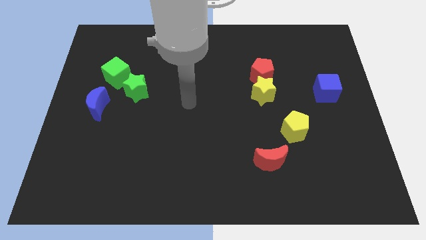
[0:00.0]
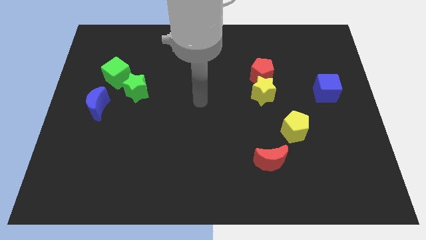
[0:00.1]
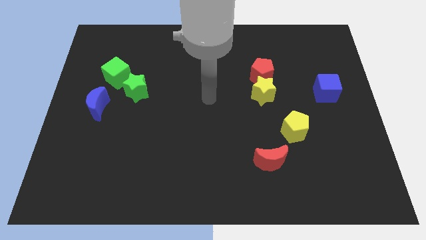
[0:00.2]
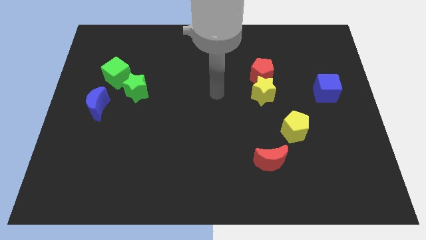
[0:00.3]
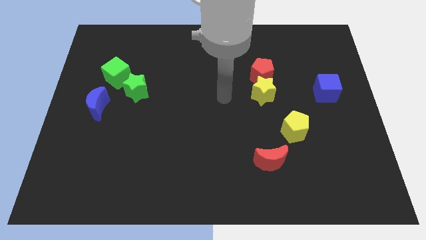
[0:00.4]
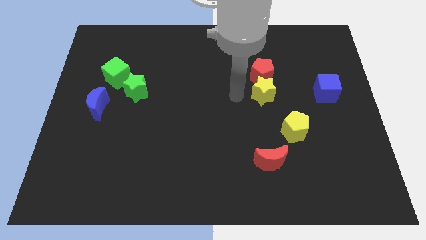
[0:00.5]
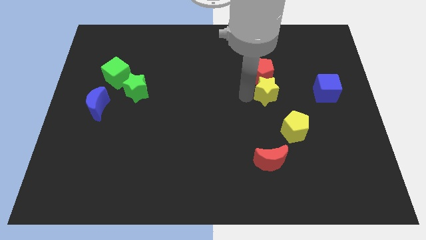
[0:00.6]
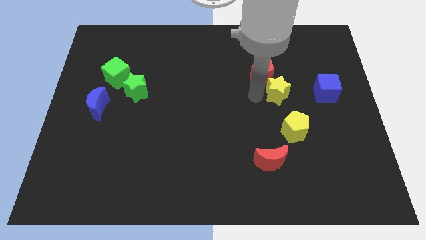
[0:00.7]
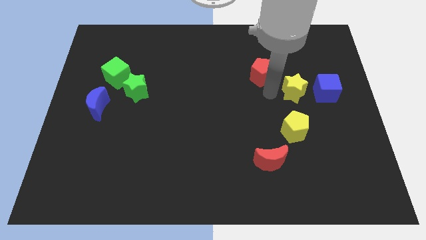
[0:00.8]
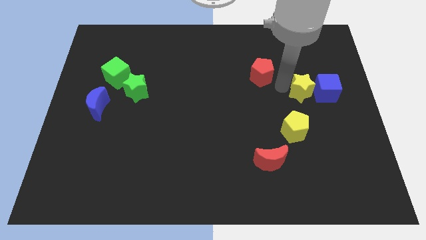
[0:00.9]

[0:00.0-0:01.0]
separate the red pentagon from the yellow star

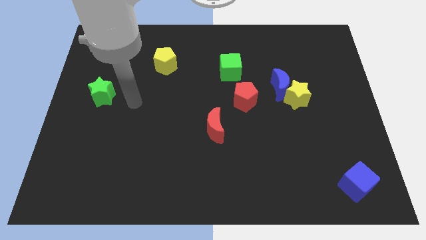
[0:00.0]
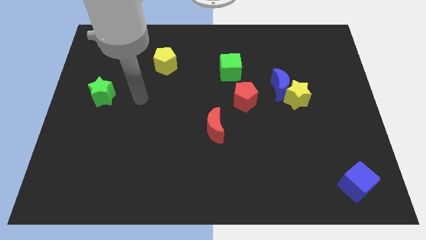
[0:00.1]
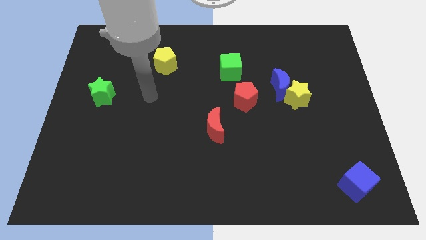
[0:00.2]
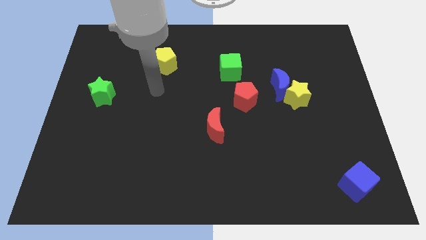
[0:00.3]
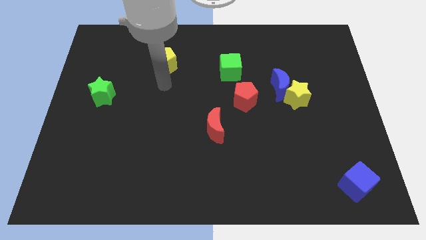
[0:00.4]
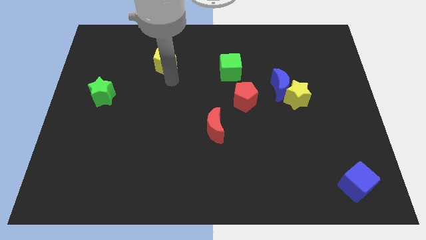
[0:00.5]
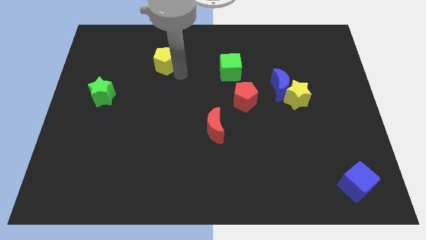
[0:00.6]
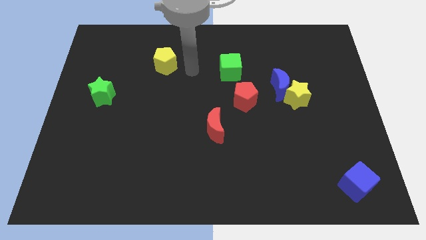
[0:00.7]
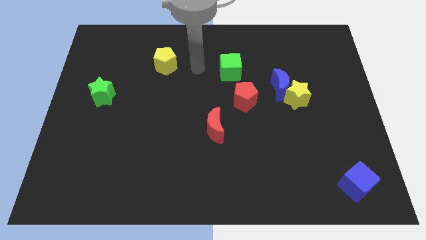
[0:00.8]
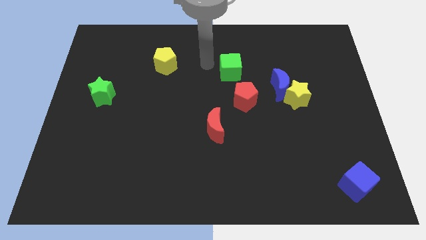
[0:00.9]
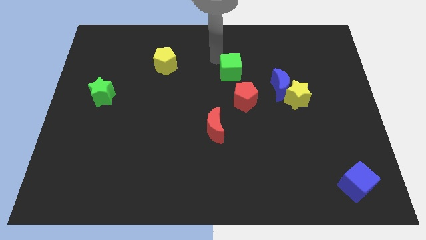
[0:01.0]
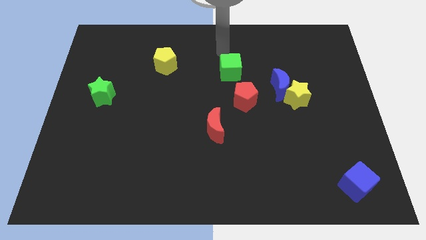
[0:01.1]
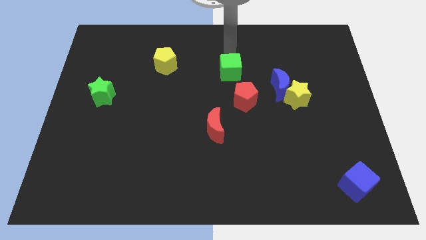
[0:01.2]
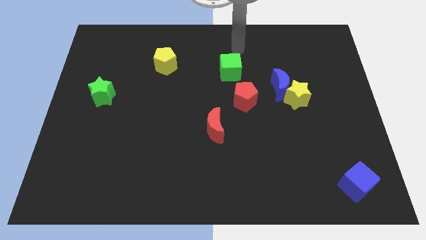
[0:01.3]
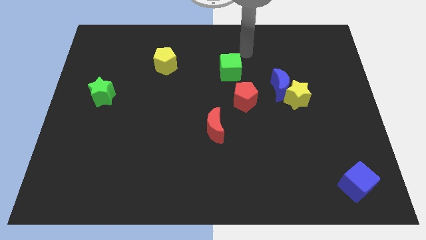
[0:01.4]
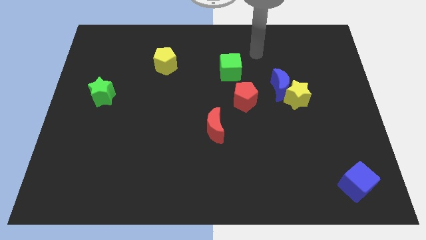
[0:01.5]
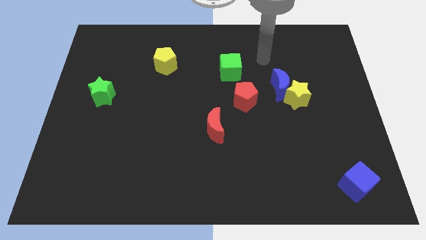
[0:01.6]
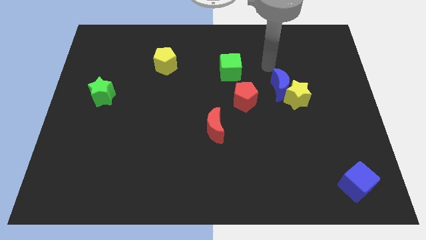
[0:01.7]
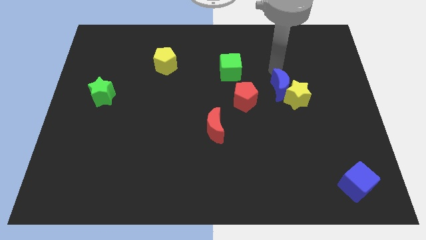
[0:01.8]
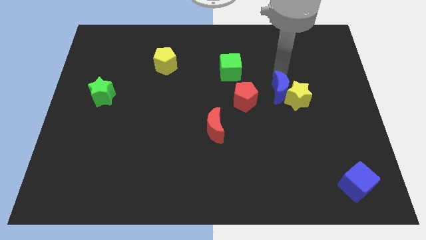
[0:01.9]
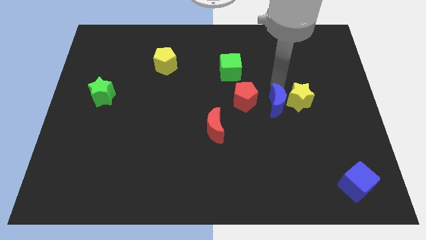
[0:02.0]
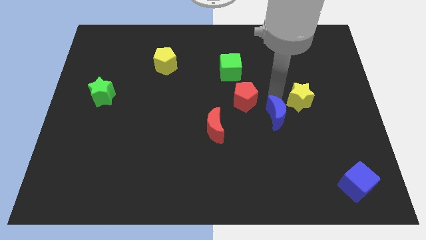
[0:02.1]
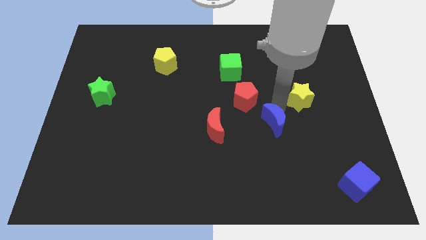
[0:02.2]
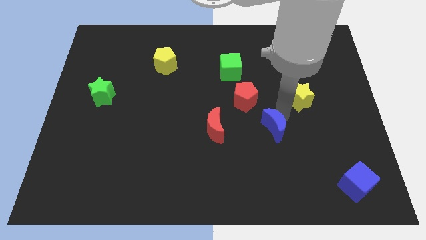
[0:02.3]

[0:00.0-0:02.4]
pull the yellow star apart from the blue moon

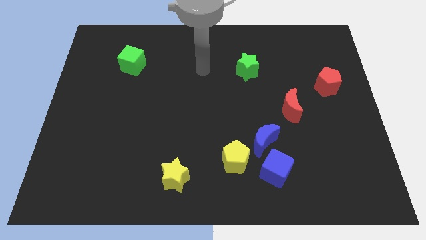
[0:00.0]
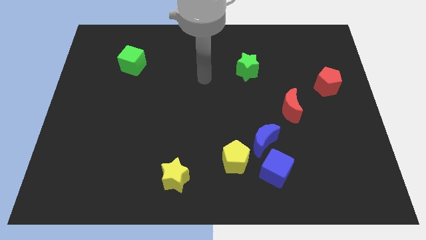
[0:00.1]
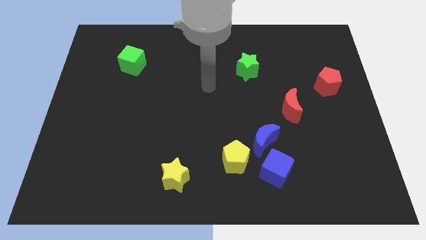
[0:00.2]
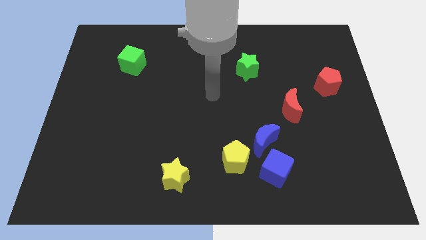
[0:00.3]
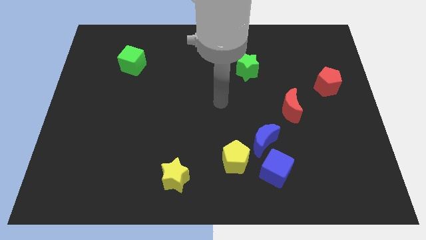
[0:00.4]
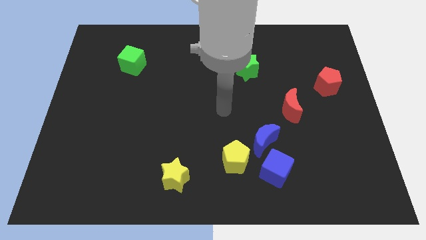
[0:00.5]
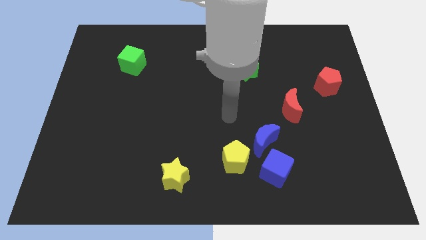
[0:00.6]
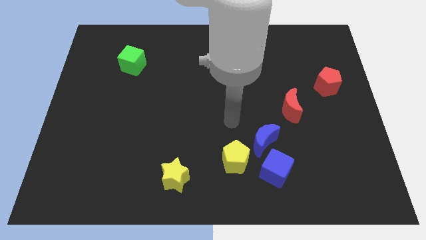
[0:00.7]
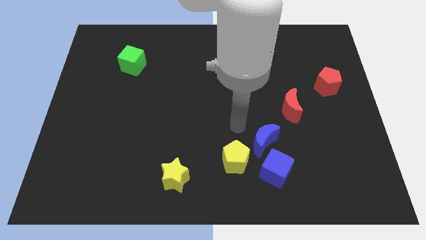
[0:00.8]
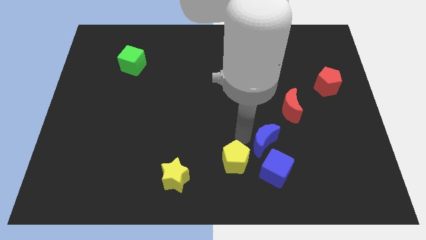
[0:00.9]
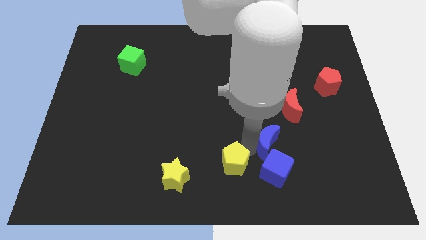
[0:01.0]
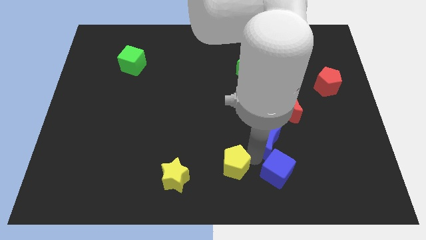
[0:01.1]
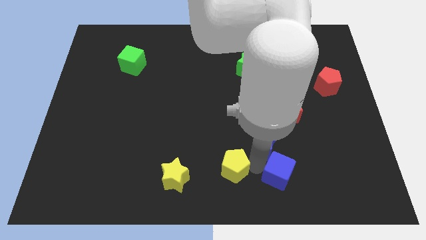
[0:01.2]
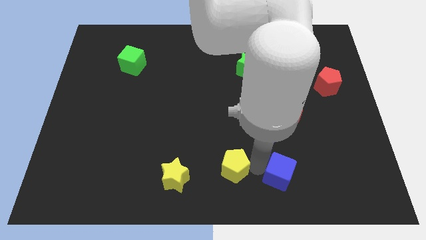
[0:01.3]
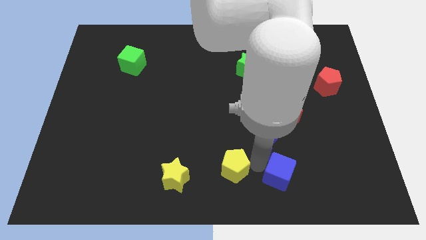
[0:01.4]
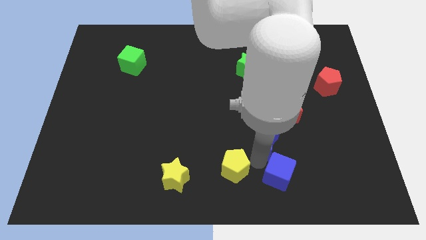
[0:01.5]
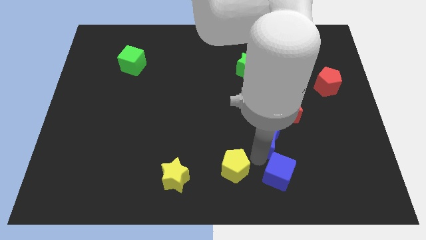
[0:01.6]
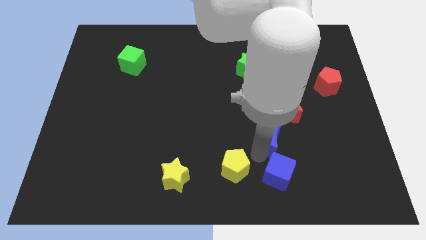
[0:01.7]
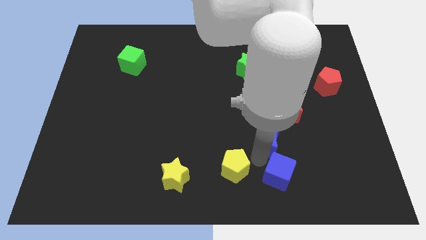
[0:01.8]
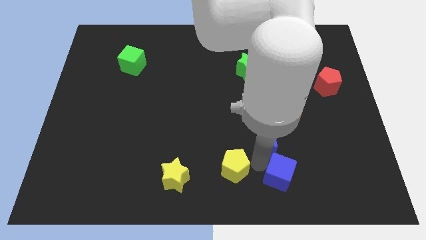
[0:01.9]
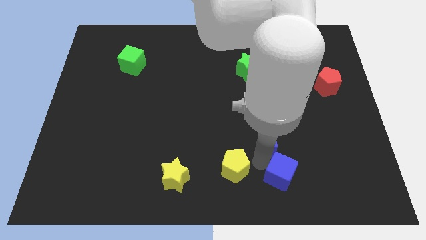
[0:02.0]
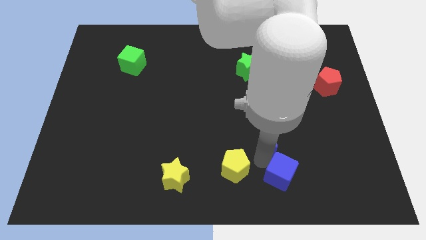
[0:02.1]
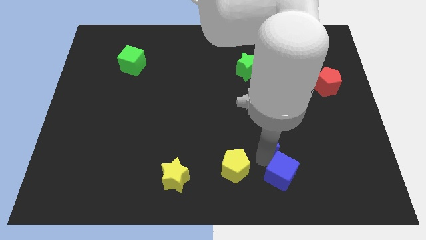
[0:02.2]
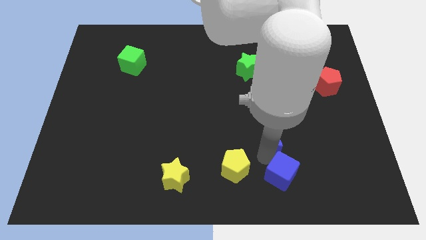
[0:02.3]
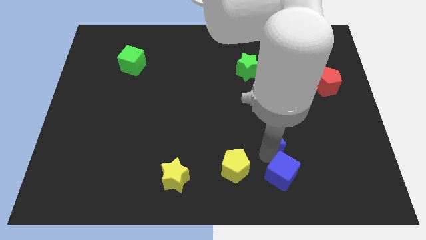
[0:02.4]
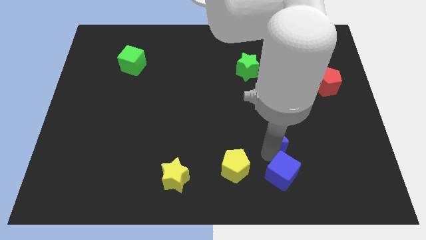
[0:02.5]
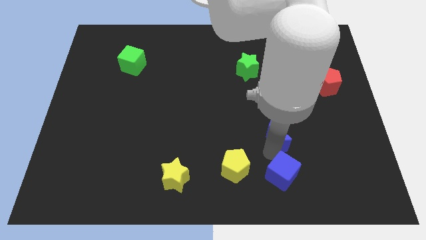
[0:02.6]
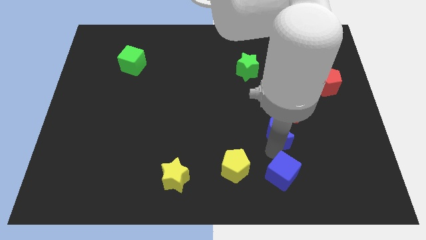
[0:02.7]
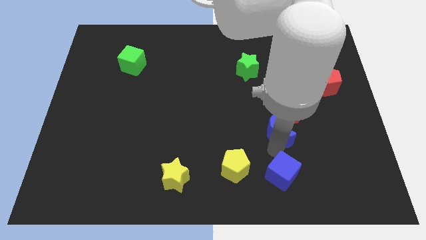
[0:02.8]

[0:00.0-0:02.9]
pull the blue moon apart from the blue cube and yellow pentagon

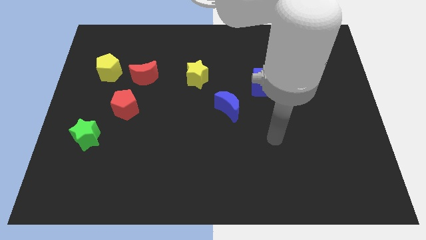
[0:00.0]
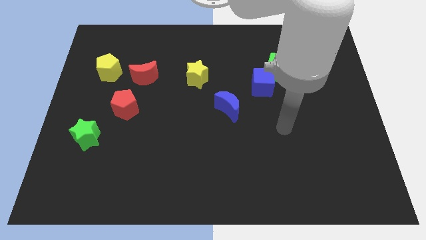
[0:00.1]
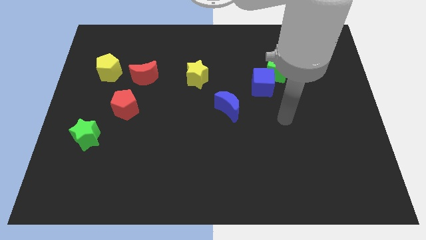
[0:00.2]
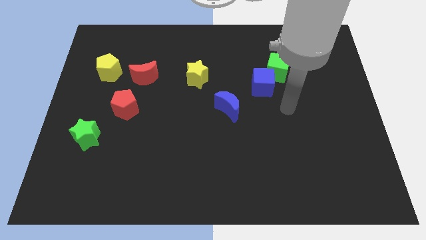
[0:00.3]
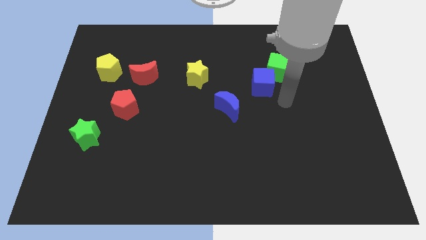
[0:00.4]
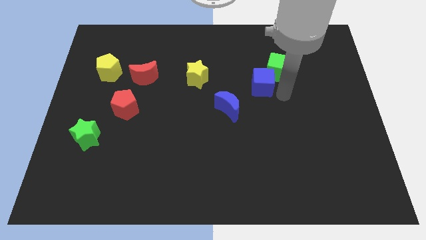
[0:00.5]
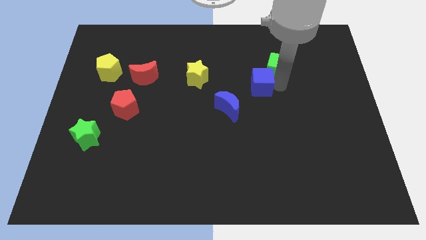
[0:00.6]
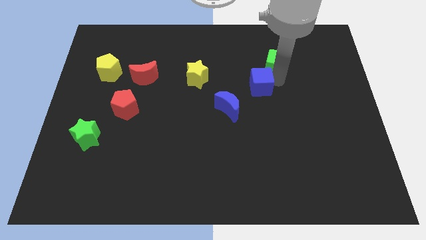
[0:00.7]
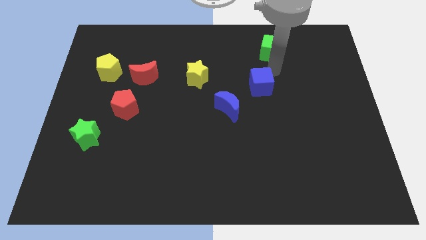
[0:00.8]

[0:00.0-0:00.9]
separate the blue cube from the green cube

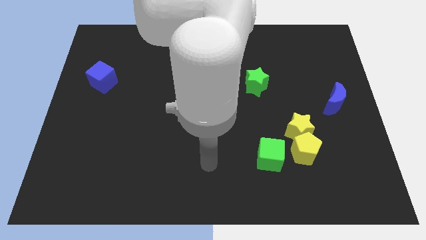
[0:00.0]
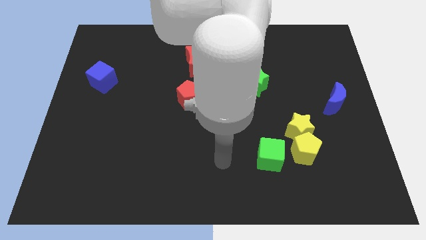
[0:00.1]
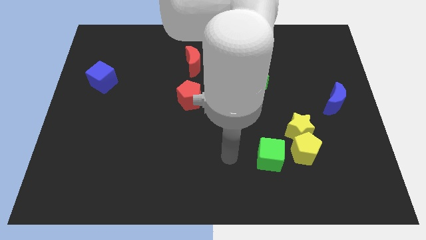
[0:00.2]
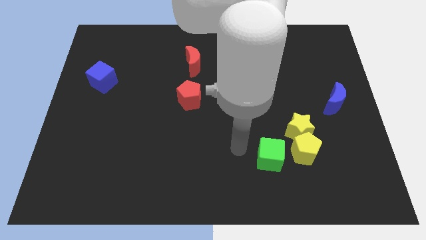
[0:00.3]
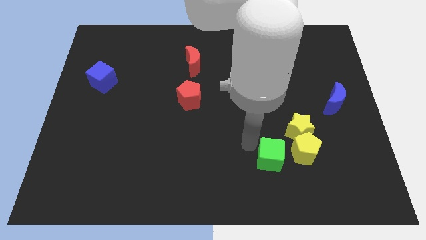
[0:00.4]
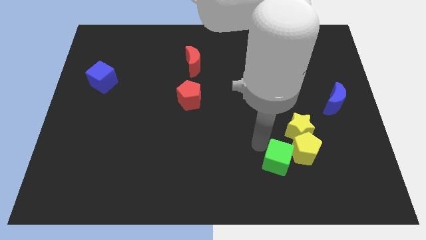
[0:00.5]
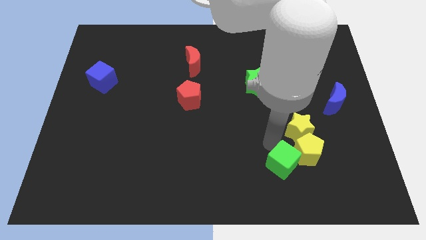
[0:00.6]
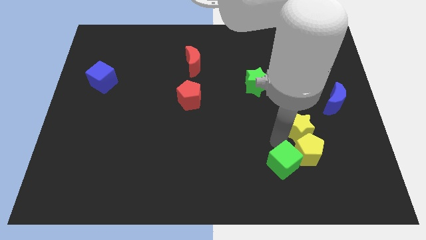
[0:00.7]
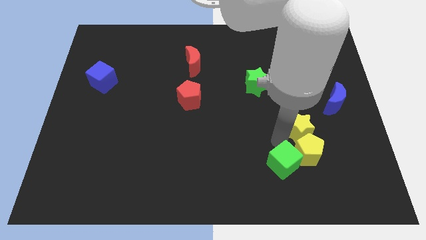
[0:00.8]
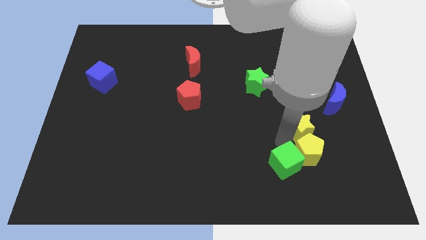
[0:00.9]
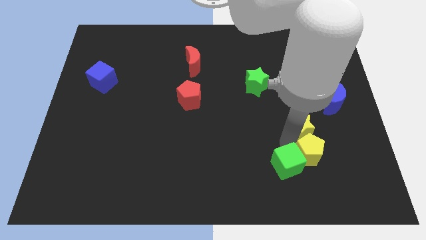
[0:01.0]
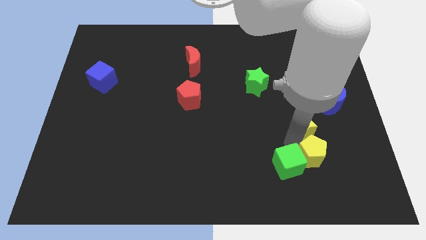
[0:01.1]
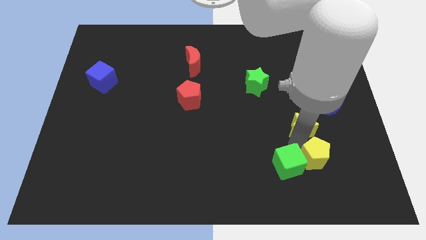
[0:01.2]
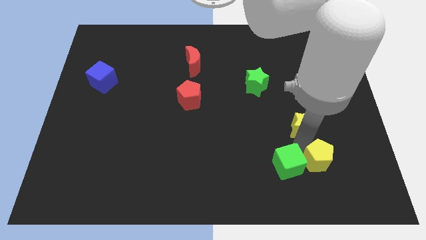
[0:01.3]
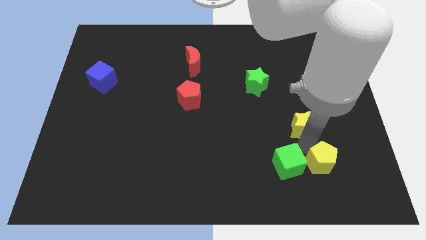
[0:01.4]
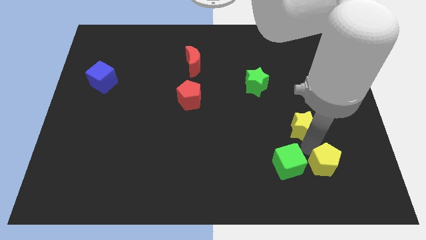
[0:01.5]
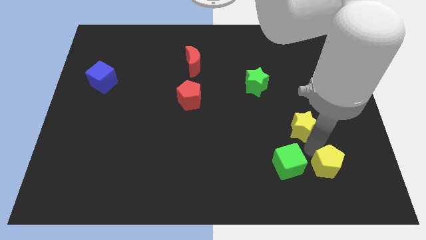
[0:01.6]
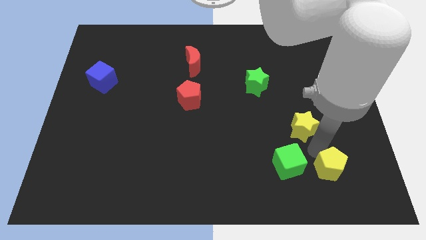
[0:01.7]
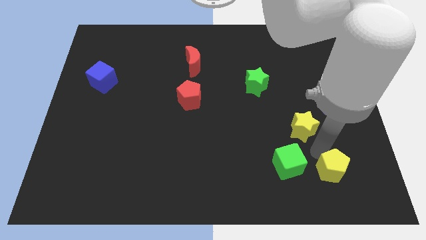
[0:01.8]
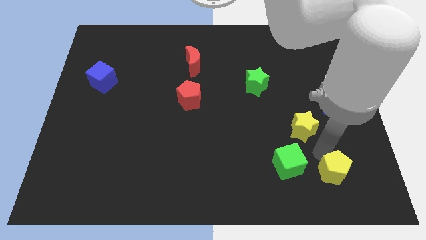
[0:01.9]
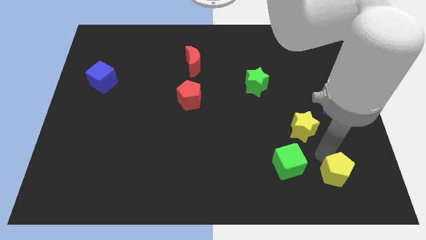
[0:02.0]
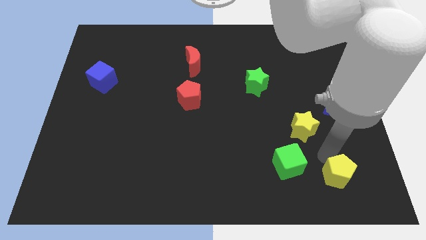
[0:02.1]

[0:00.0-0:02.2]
pull the yellow pentagon apart from the yellow star and green cube
